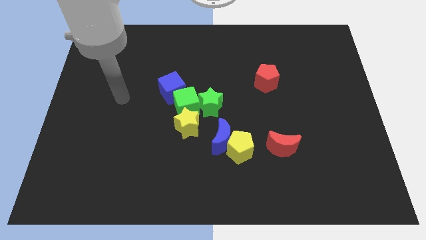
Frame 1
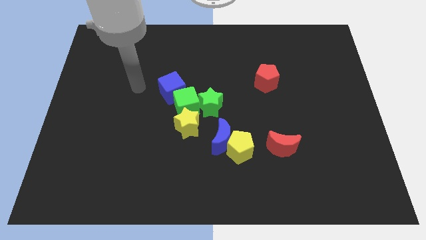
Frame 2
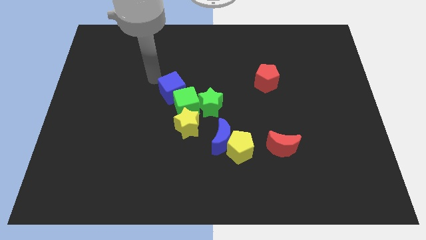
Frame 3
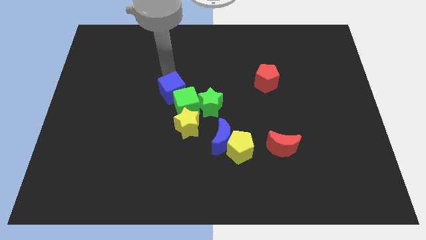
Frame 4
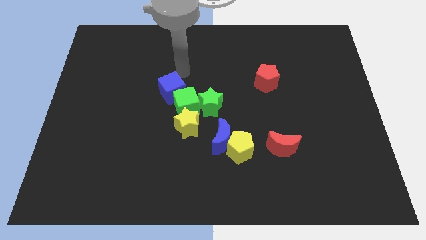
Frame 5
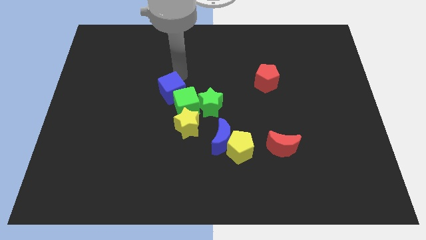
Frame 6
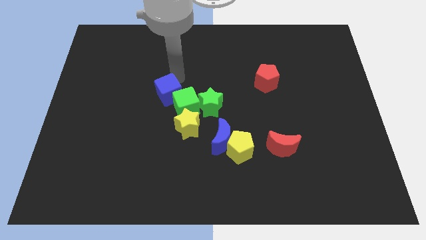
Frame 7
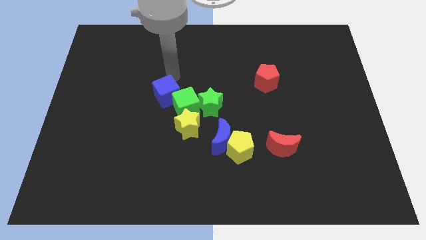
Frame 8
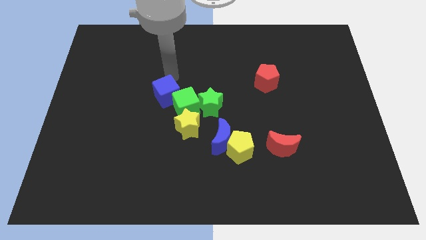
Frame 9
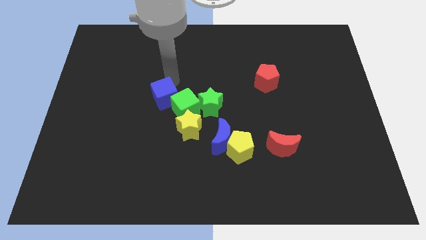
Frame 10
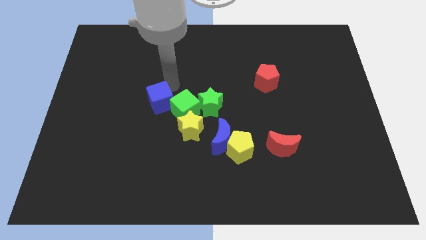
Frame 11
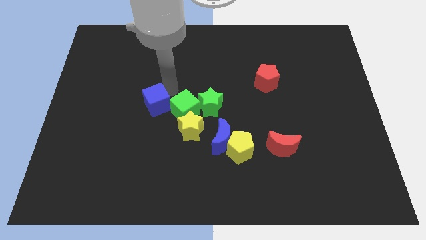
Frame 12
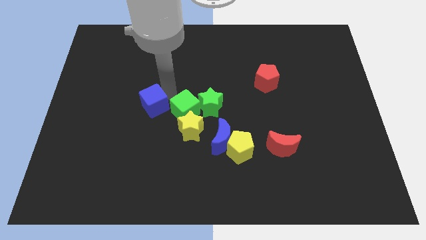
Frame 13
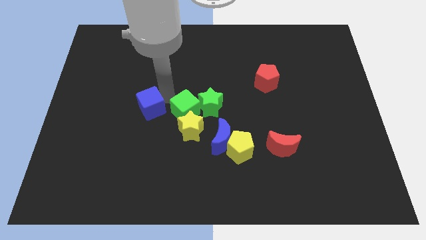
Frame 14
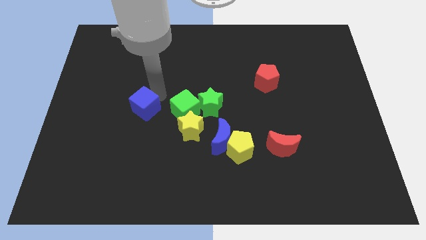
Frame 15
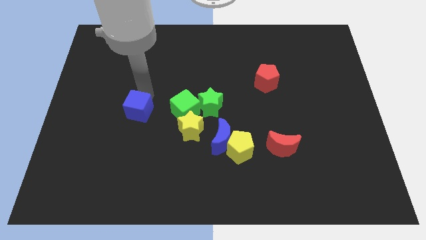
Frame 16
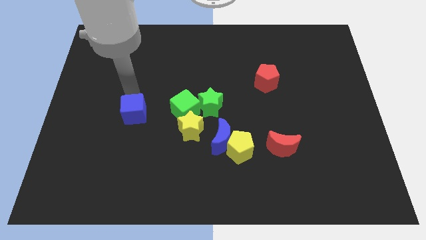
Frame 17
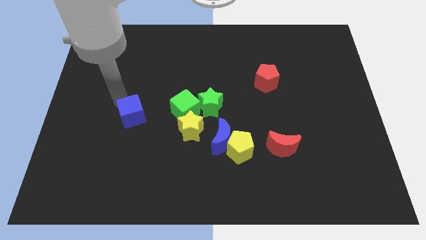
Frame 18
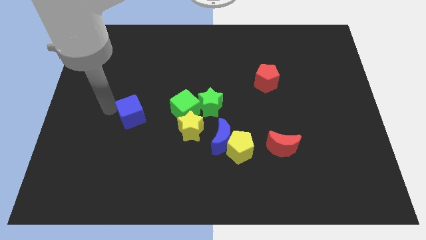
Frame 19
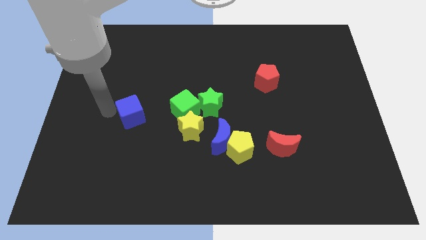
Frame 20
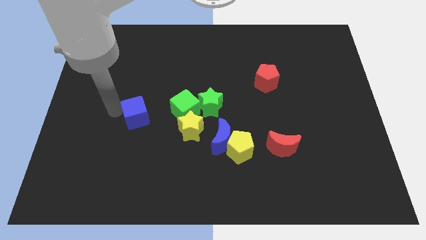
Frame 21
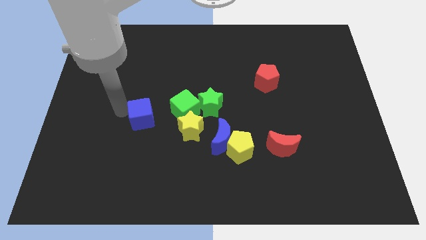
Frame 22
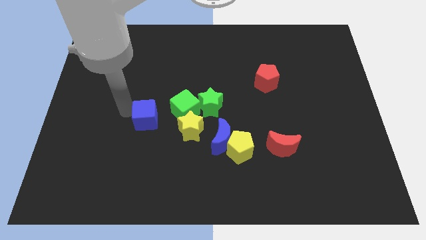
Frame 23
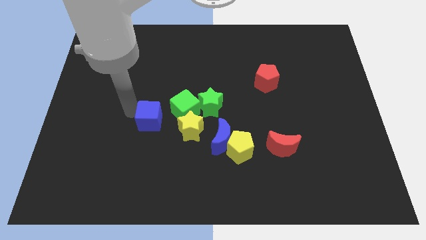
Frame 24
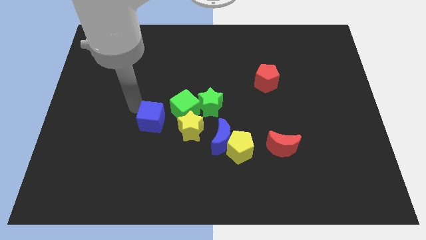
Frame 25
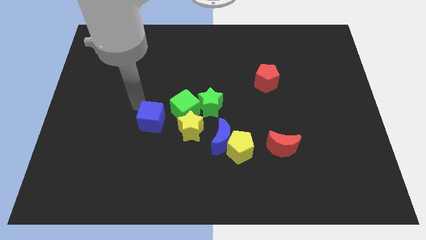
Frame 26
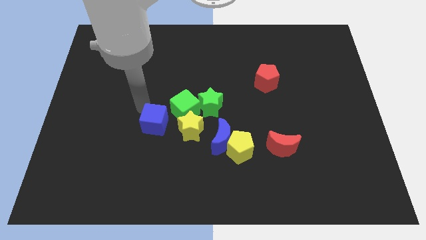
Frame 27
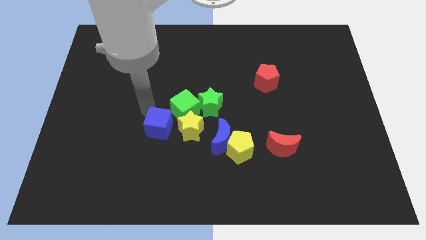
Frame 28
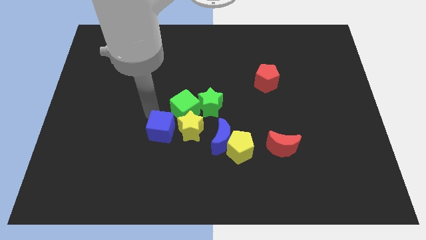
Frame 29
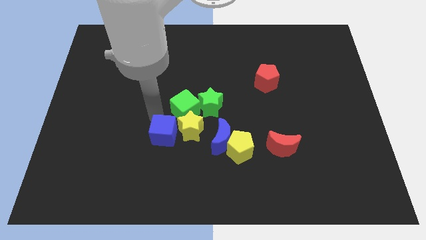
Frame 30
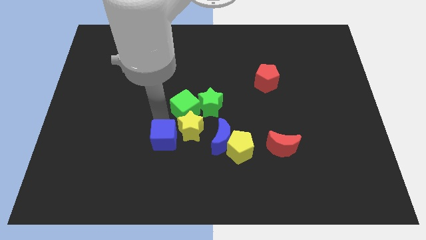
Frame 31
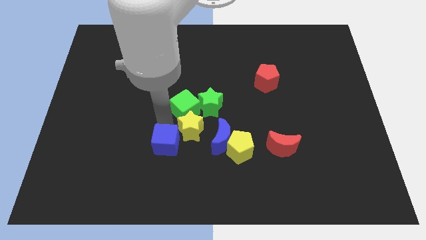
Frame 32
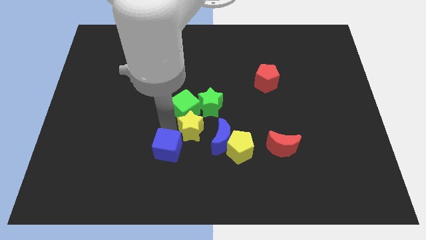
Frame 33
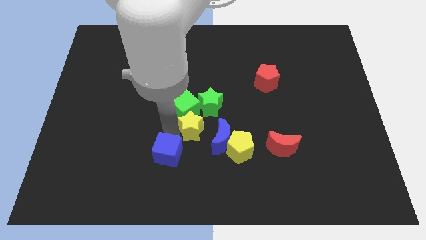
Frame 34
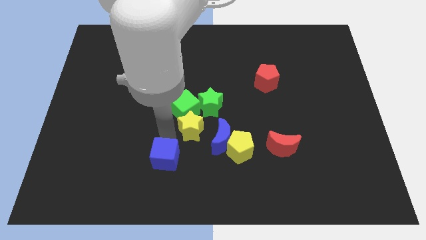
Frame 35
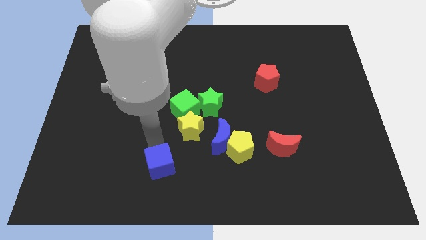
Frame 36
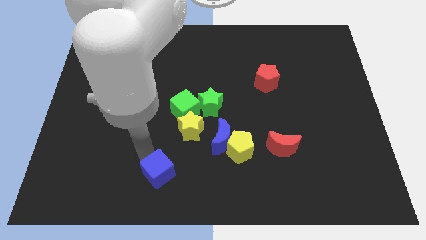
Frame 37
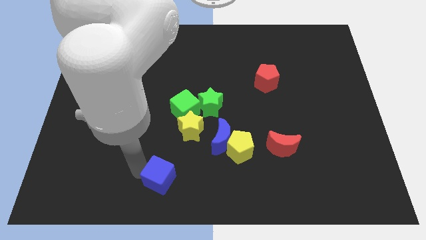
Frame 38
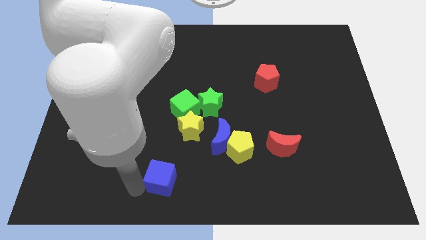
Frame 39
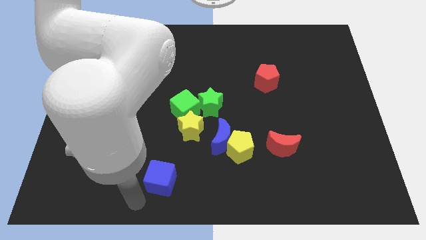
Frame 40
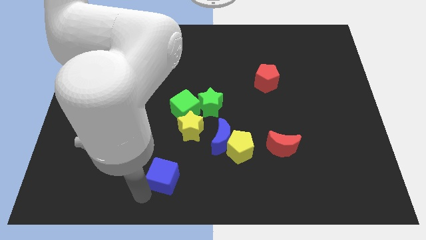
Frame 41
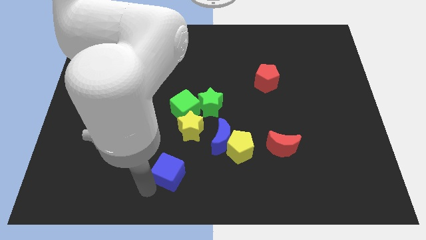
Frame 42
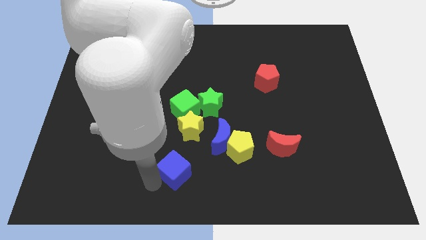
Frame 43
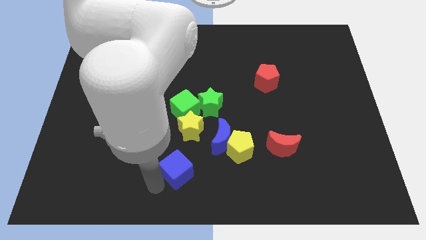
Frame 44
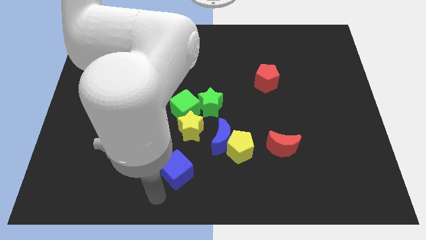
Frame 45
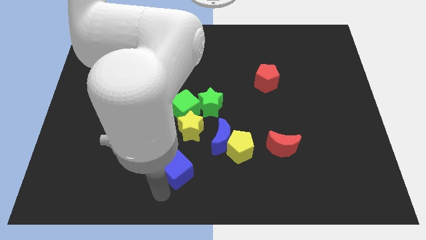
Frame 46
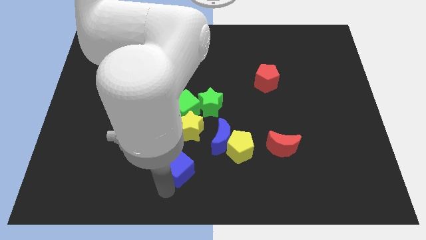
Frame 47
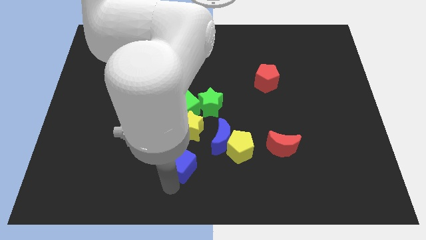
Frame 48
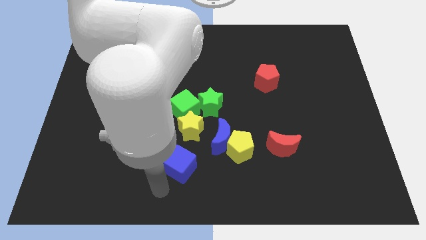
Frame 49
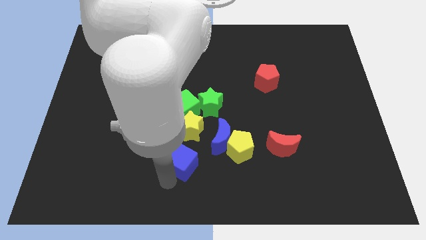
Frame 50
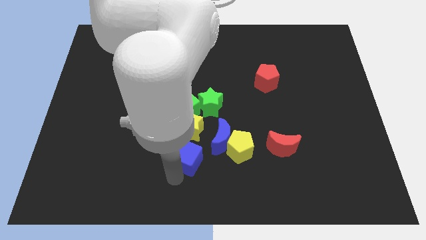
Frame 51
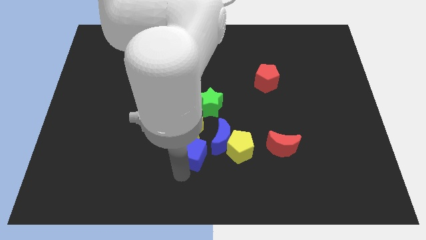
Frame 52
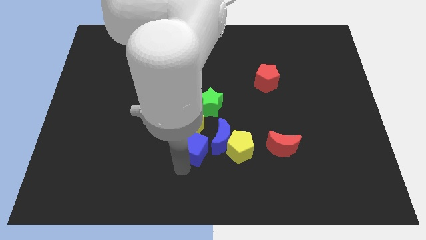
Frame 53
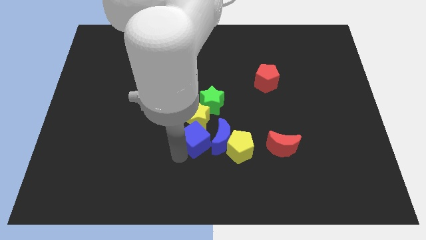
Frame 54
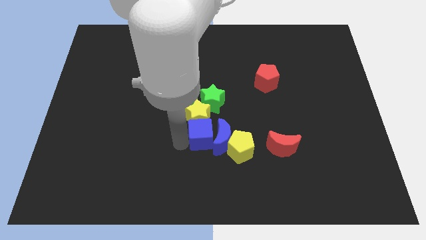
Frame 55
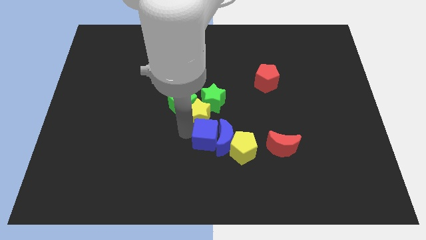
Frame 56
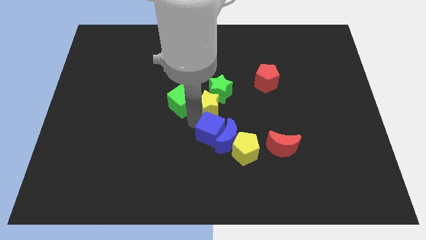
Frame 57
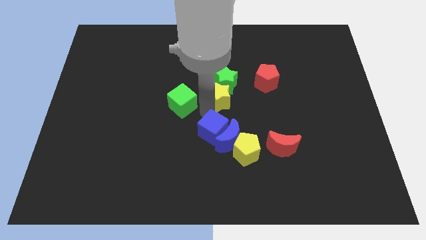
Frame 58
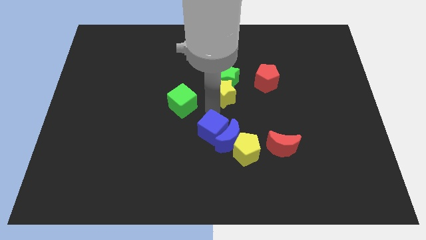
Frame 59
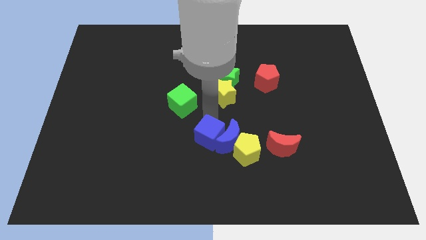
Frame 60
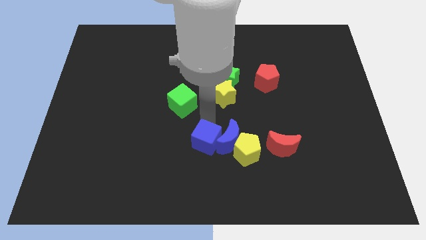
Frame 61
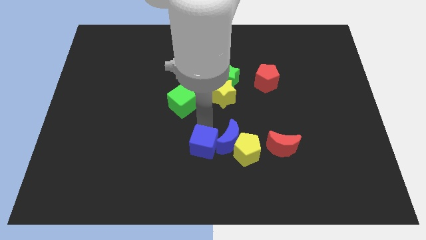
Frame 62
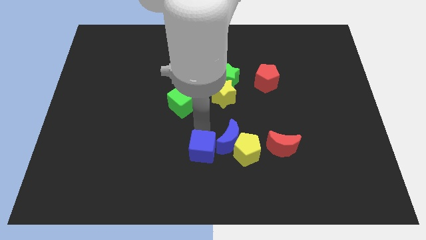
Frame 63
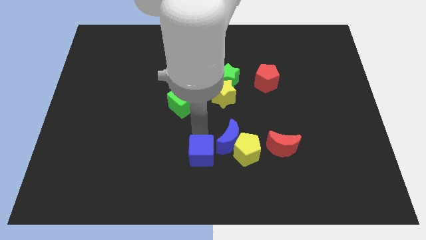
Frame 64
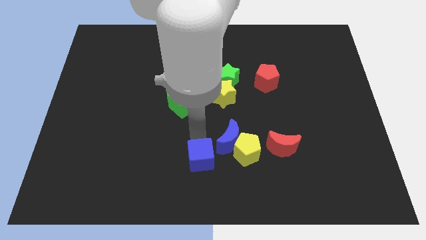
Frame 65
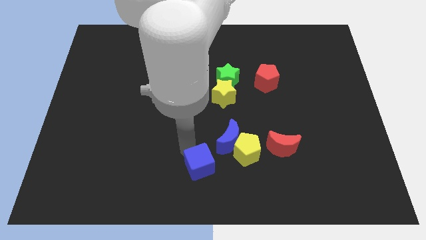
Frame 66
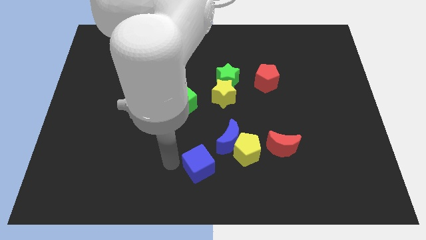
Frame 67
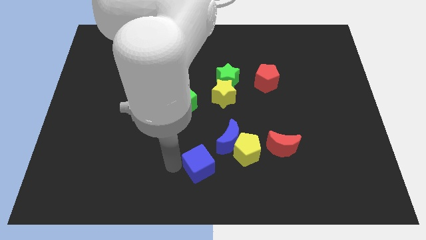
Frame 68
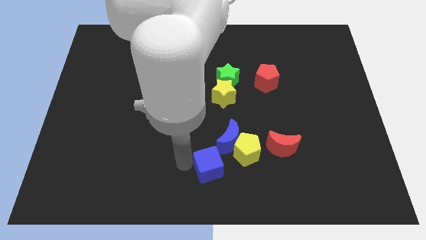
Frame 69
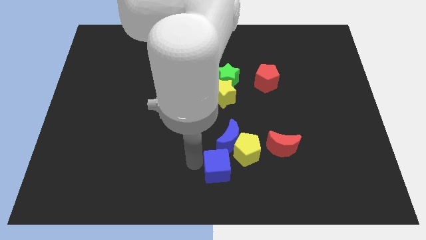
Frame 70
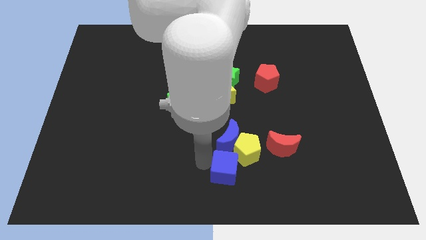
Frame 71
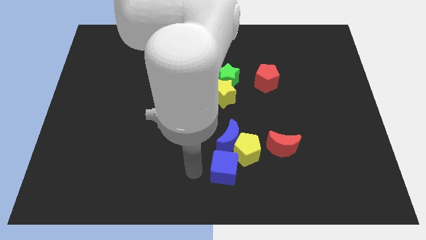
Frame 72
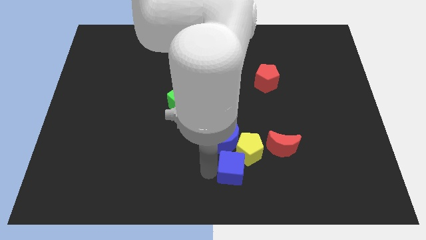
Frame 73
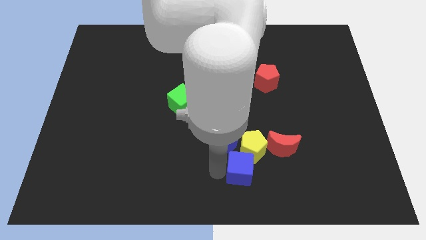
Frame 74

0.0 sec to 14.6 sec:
slide the blue cube to the bottom left of the red moon

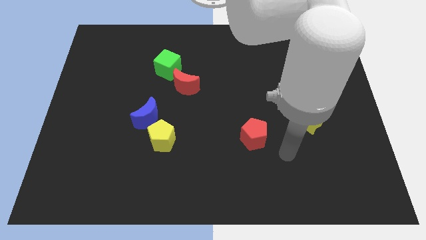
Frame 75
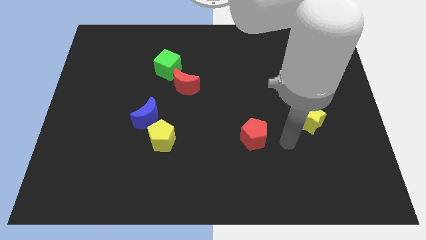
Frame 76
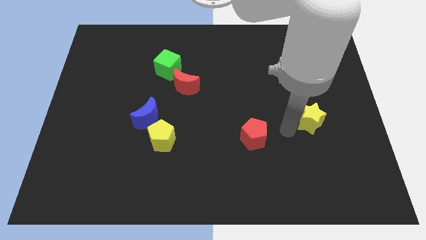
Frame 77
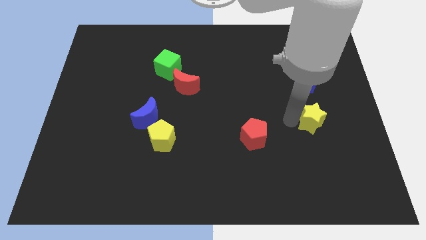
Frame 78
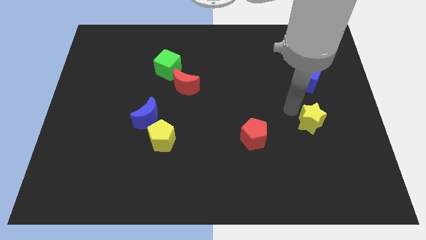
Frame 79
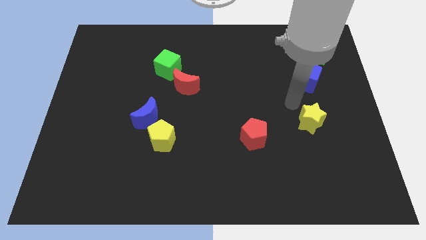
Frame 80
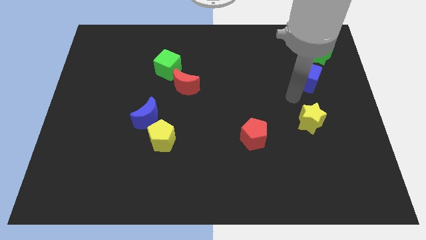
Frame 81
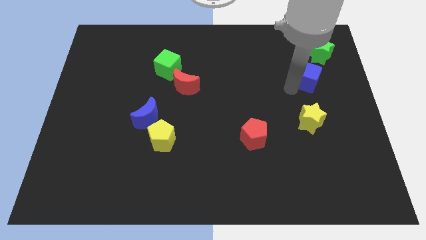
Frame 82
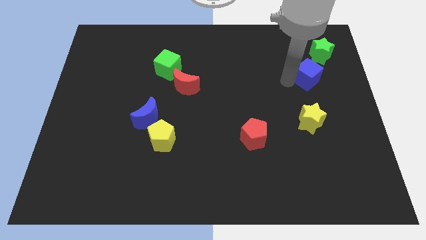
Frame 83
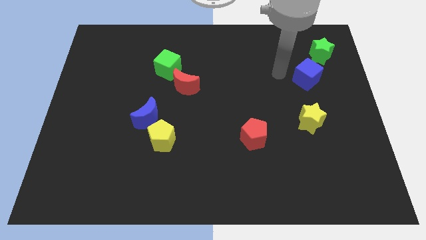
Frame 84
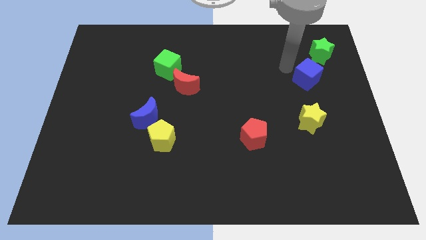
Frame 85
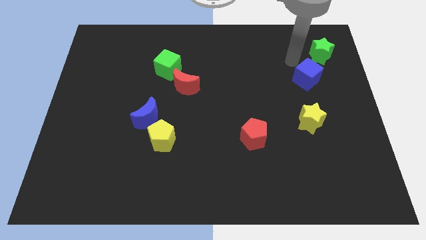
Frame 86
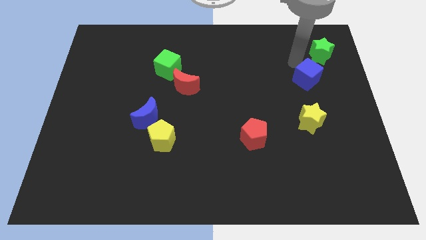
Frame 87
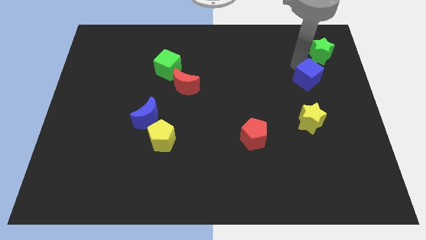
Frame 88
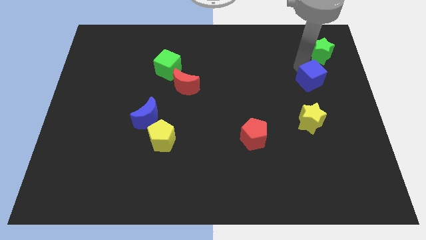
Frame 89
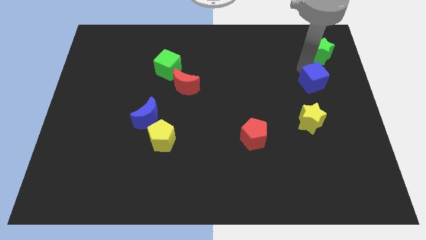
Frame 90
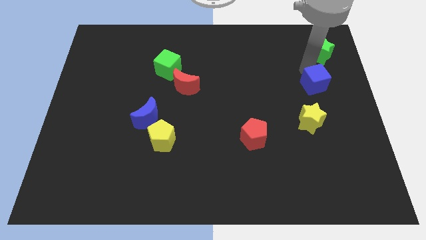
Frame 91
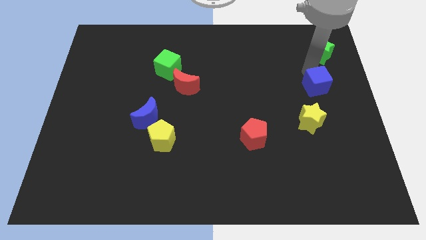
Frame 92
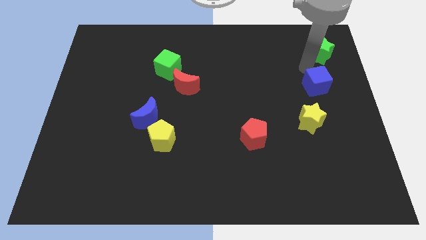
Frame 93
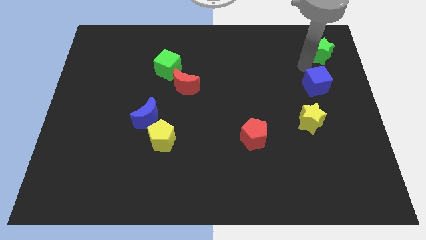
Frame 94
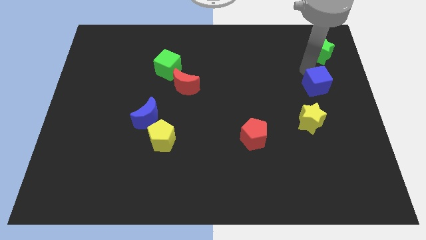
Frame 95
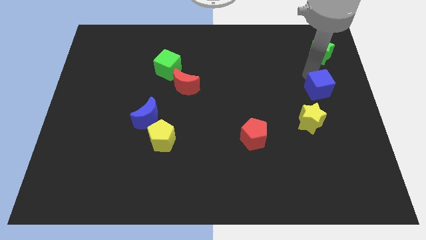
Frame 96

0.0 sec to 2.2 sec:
slide the blue cube to the top right side of the yellow star
